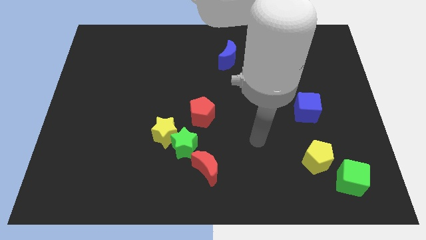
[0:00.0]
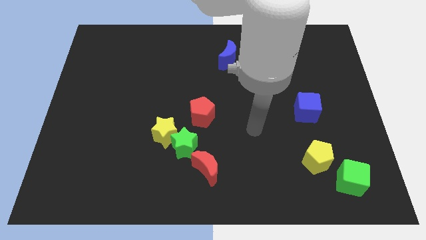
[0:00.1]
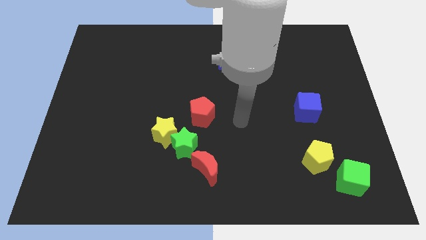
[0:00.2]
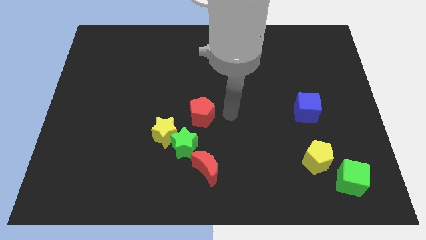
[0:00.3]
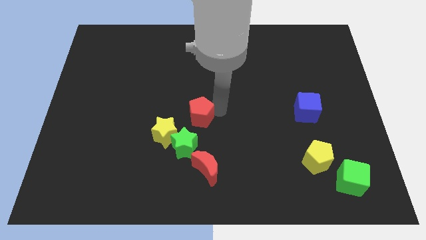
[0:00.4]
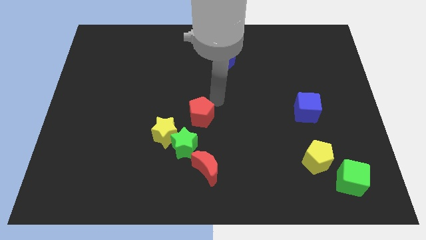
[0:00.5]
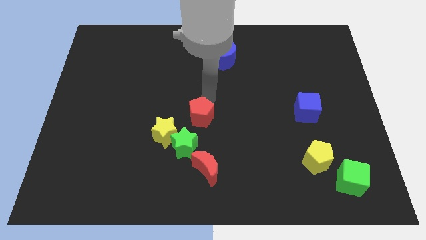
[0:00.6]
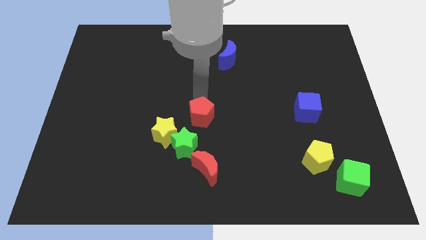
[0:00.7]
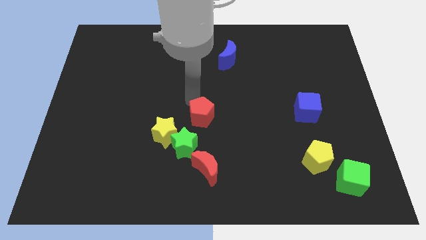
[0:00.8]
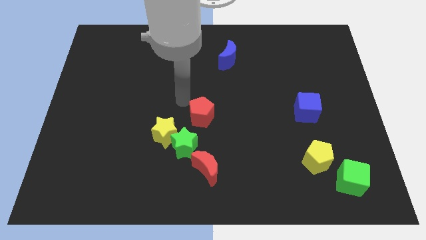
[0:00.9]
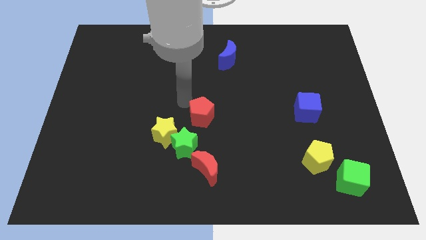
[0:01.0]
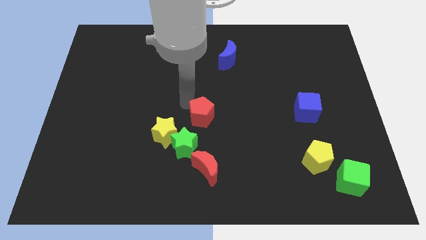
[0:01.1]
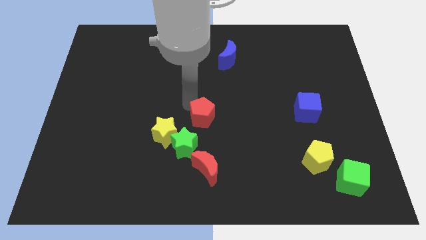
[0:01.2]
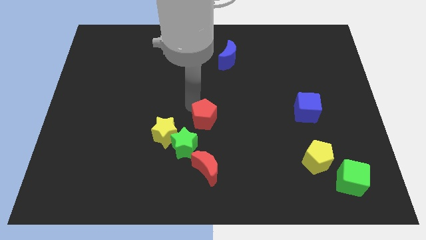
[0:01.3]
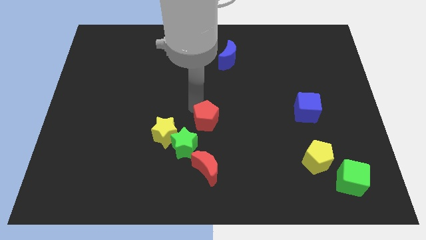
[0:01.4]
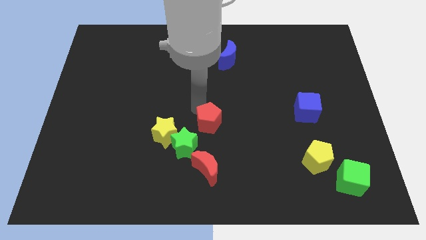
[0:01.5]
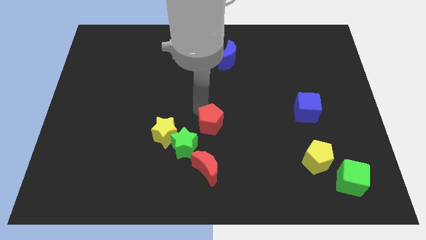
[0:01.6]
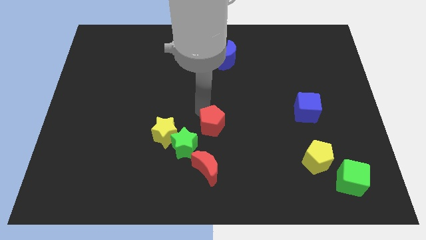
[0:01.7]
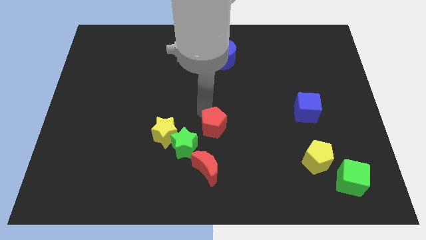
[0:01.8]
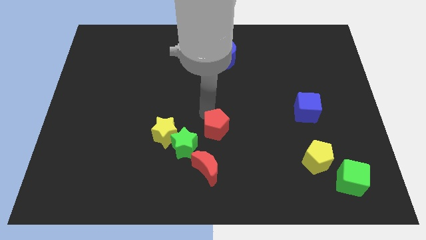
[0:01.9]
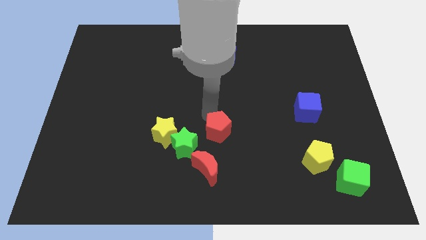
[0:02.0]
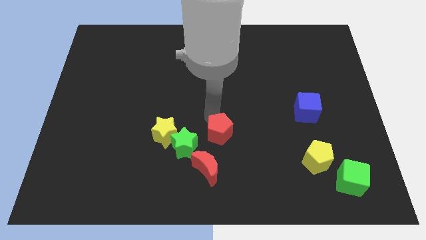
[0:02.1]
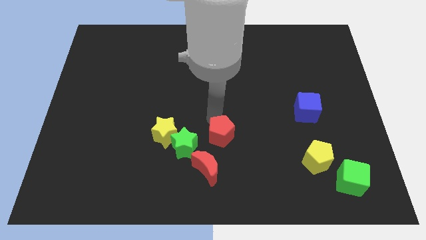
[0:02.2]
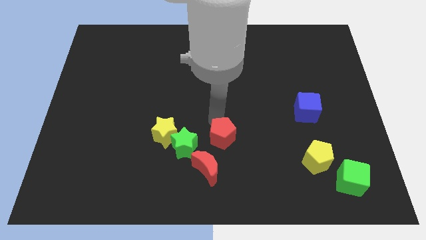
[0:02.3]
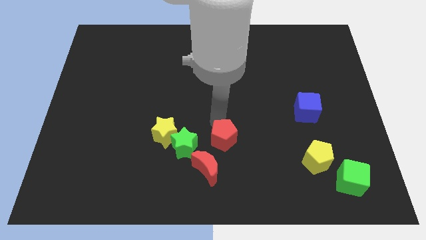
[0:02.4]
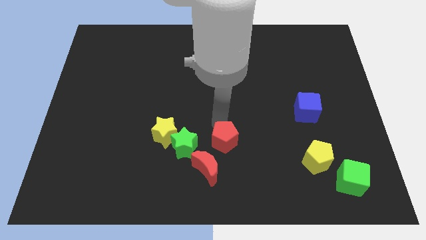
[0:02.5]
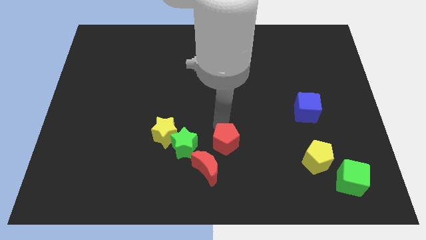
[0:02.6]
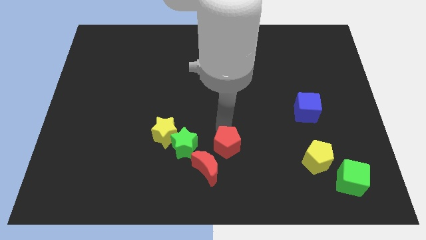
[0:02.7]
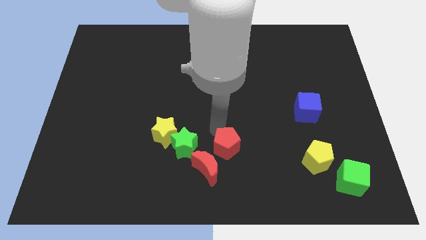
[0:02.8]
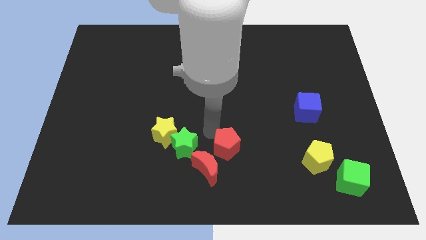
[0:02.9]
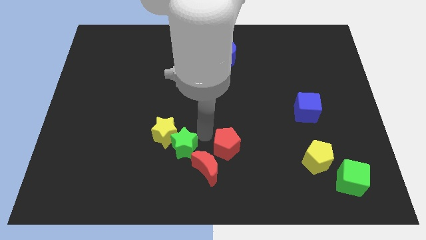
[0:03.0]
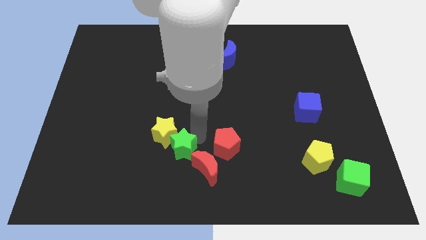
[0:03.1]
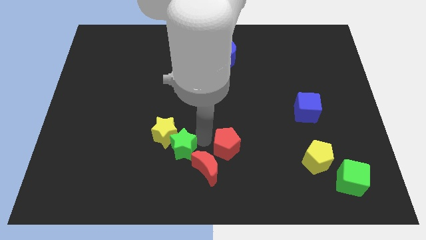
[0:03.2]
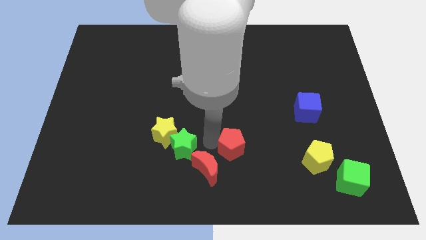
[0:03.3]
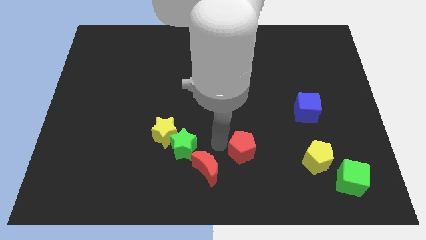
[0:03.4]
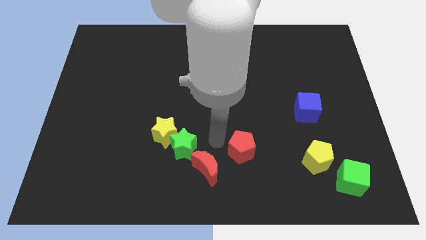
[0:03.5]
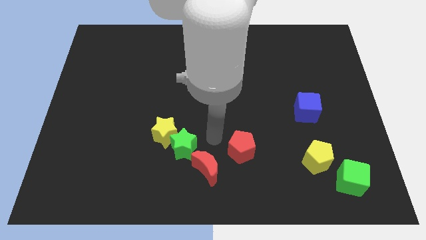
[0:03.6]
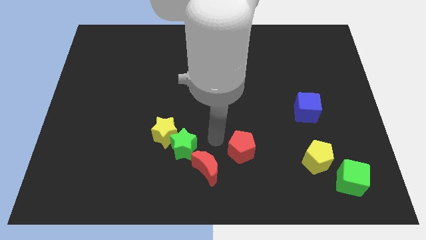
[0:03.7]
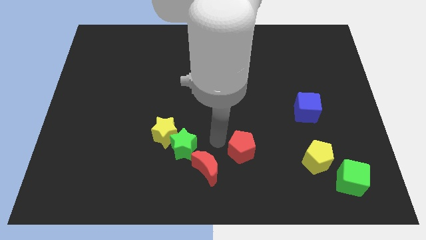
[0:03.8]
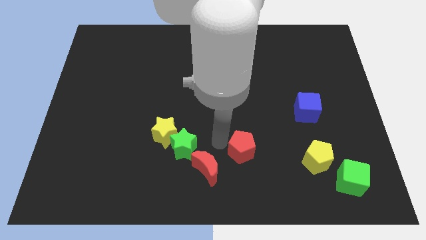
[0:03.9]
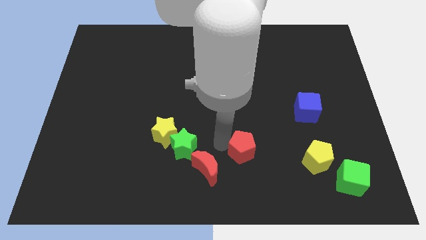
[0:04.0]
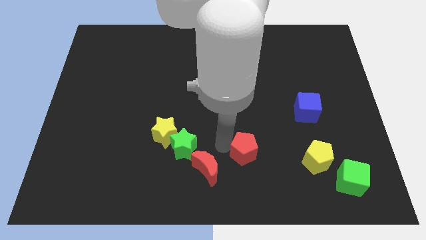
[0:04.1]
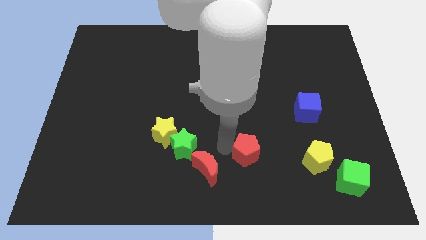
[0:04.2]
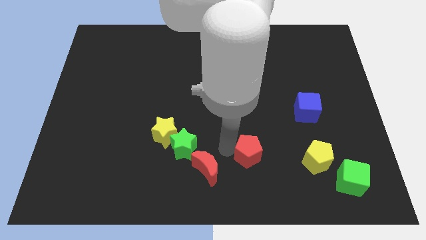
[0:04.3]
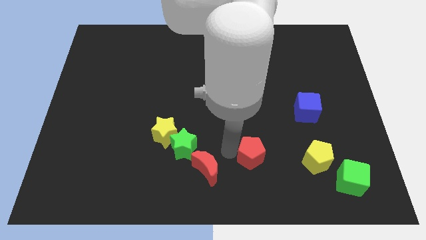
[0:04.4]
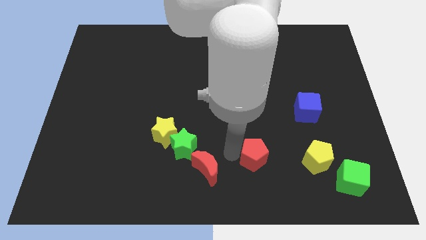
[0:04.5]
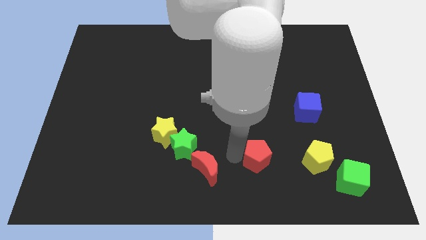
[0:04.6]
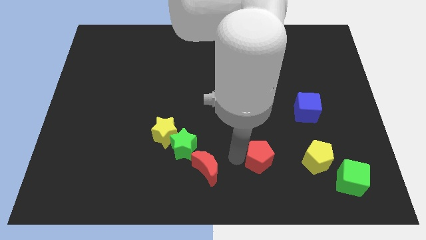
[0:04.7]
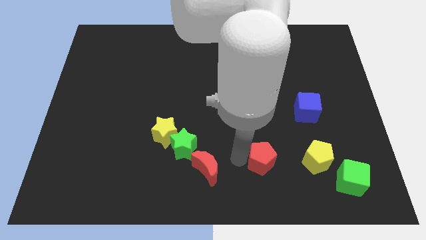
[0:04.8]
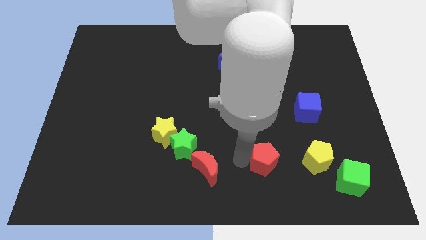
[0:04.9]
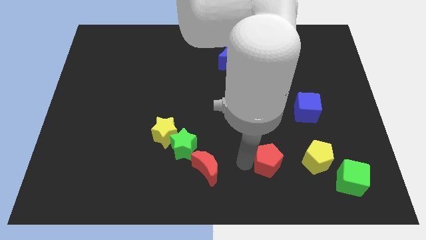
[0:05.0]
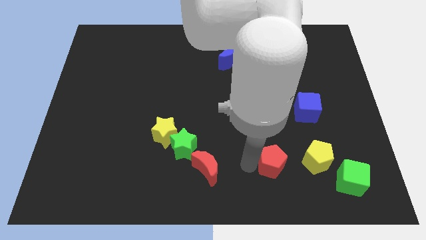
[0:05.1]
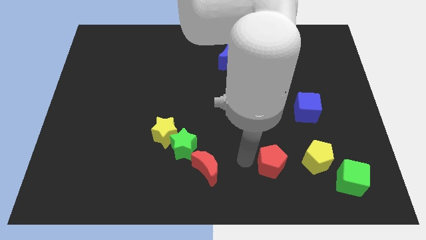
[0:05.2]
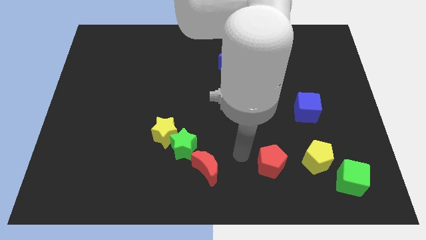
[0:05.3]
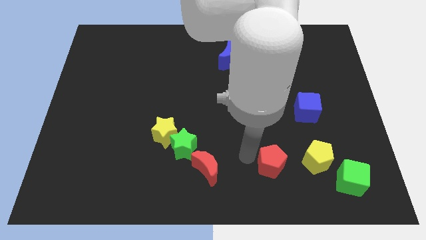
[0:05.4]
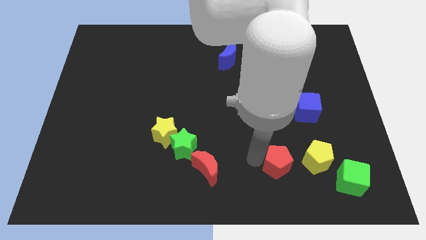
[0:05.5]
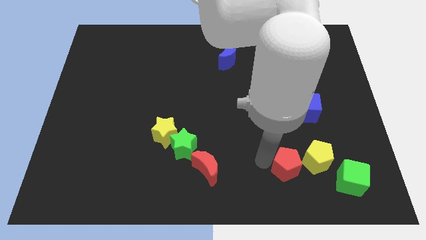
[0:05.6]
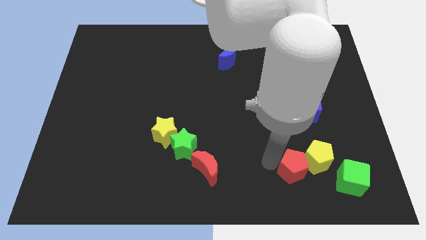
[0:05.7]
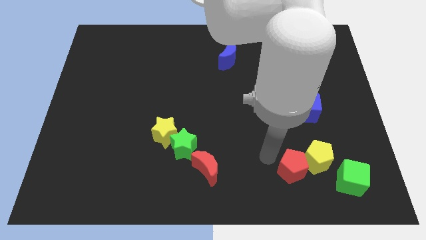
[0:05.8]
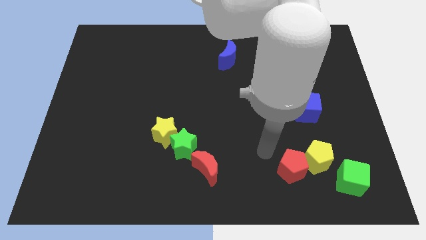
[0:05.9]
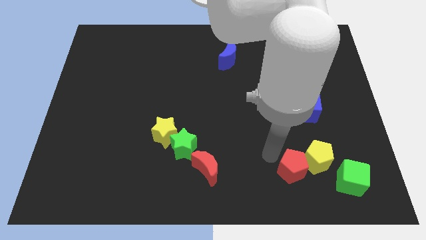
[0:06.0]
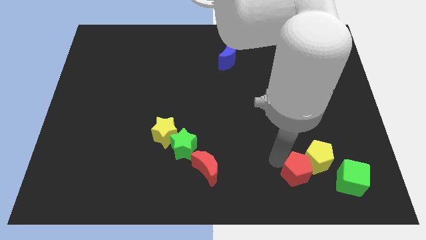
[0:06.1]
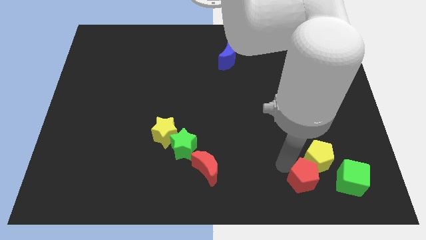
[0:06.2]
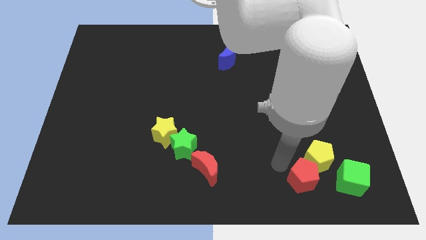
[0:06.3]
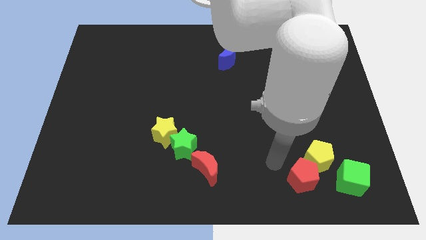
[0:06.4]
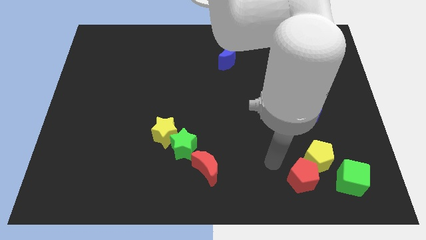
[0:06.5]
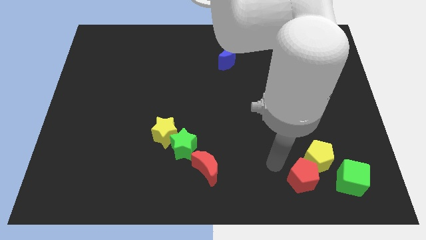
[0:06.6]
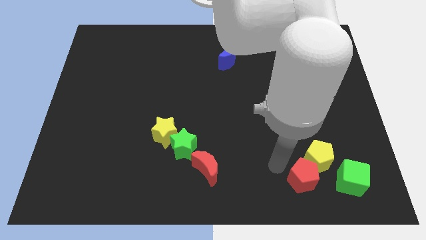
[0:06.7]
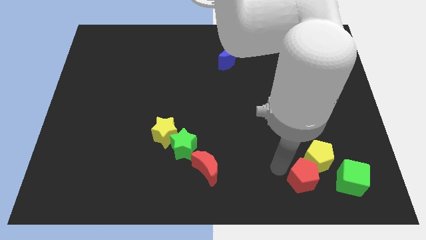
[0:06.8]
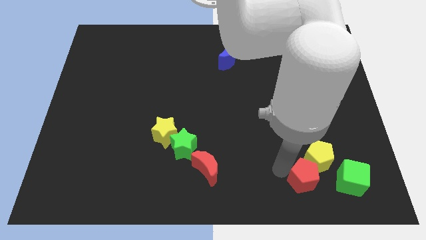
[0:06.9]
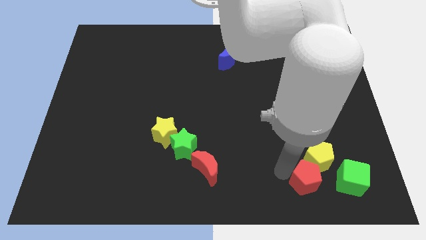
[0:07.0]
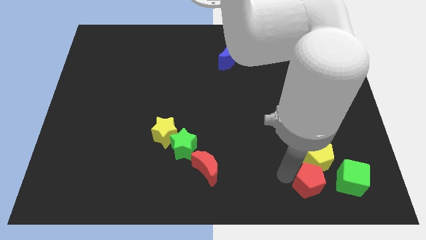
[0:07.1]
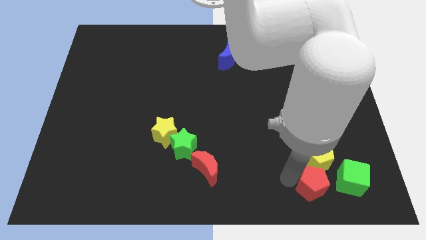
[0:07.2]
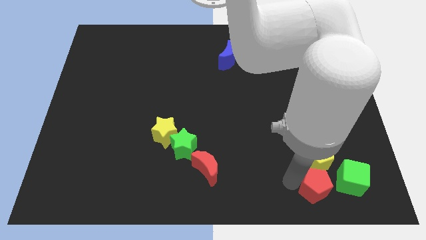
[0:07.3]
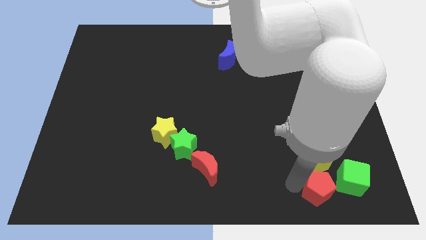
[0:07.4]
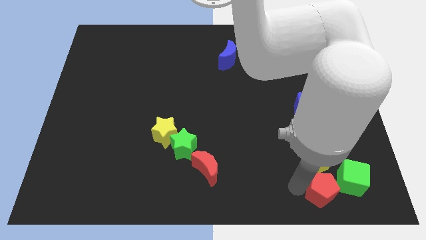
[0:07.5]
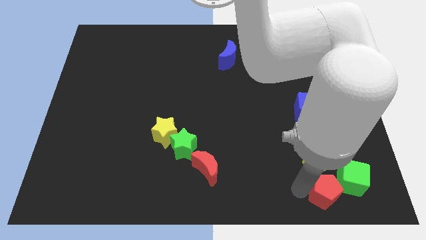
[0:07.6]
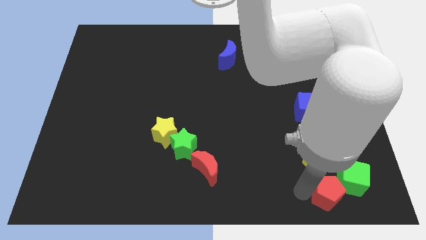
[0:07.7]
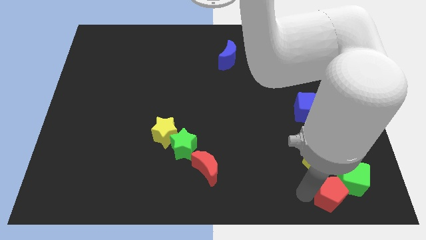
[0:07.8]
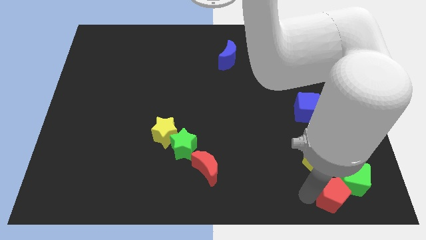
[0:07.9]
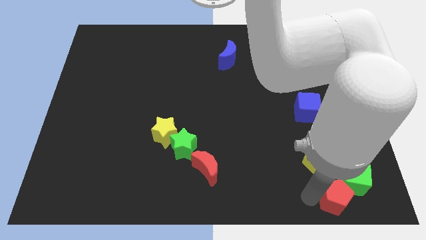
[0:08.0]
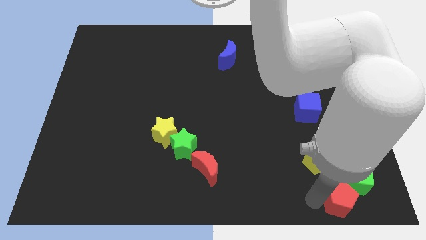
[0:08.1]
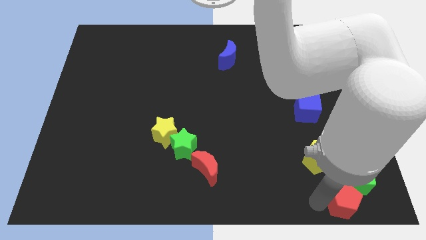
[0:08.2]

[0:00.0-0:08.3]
slide the red pentagon to the lower right corner
